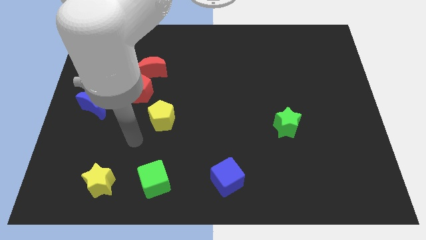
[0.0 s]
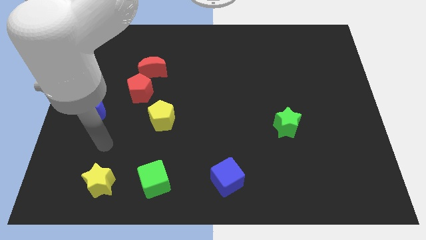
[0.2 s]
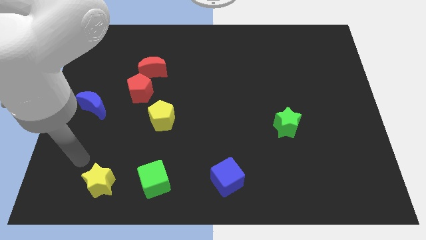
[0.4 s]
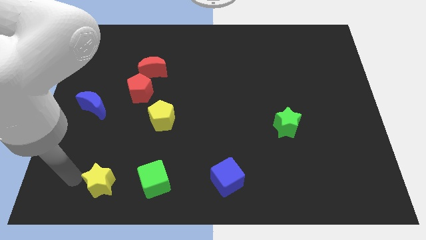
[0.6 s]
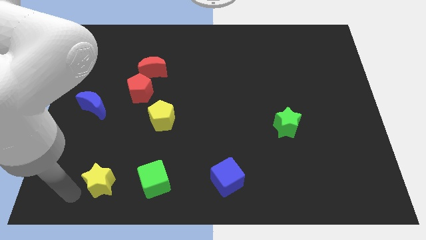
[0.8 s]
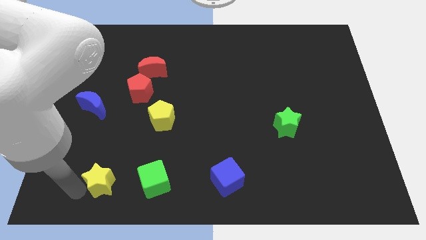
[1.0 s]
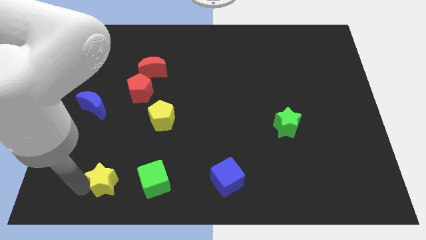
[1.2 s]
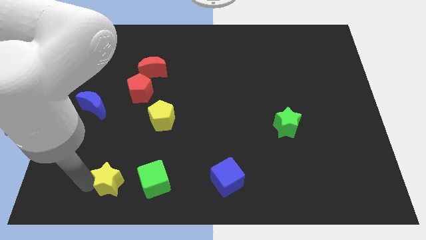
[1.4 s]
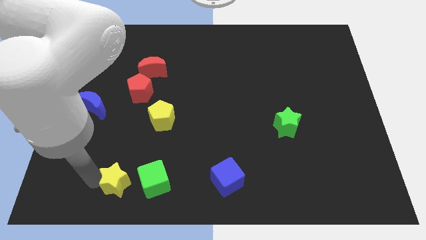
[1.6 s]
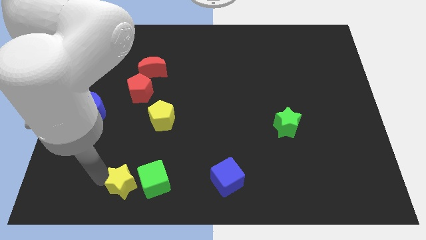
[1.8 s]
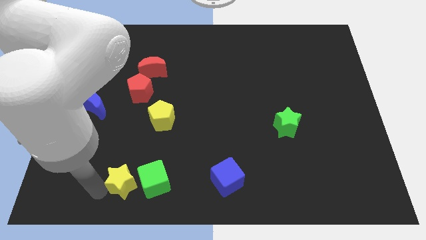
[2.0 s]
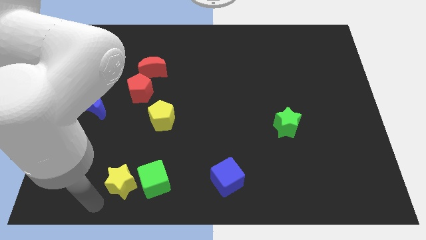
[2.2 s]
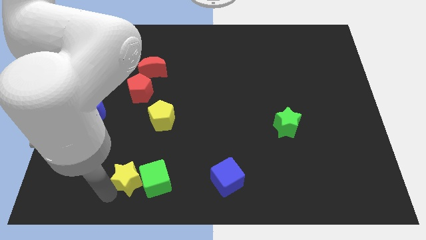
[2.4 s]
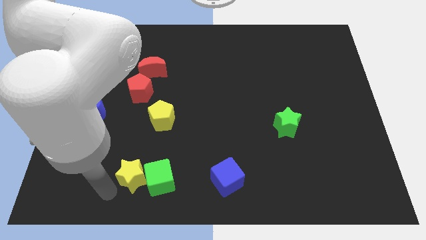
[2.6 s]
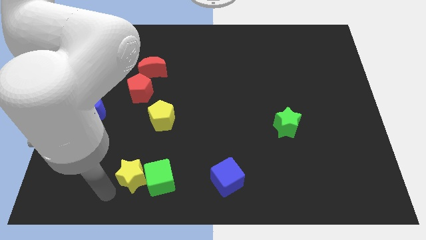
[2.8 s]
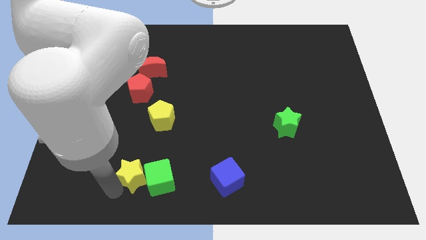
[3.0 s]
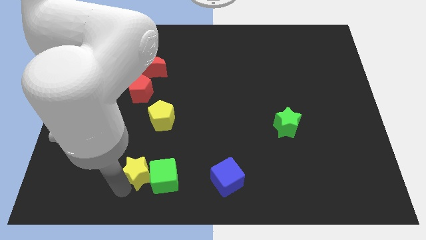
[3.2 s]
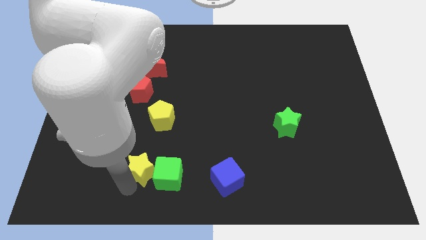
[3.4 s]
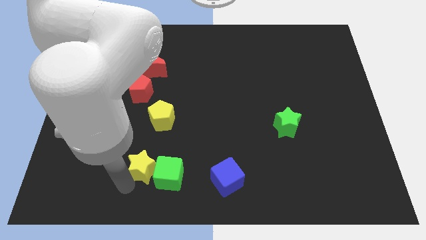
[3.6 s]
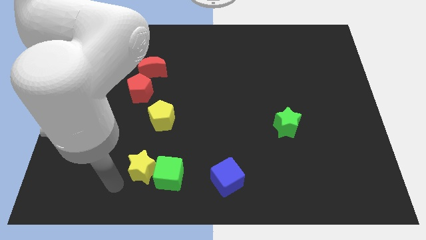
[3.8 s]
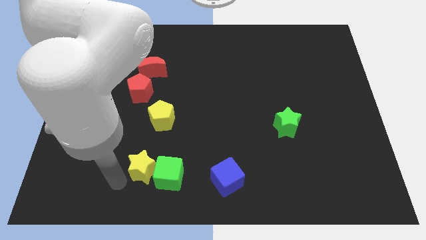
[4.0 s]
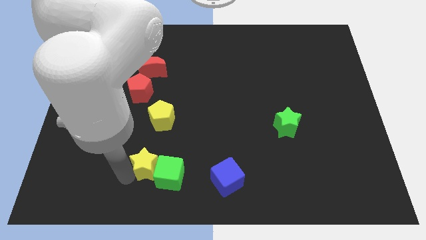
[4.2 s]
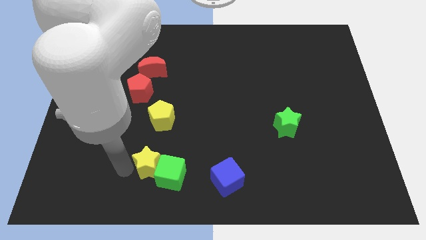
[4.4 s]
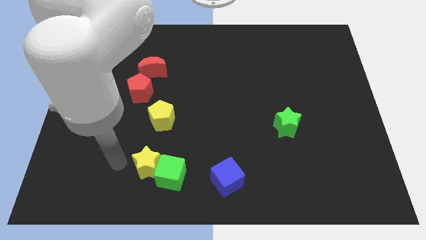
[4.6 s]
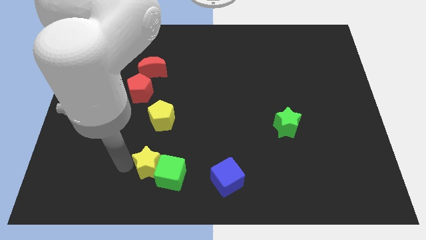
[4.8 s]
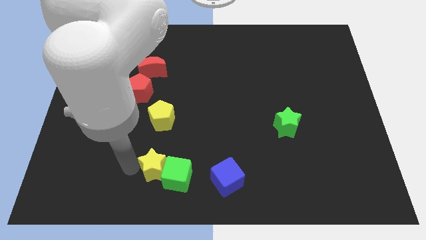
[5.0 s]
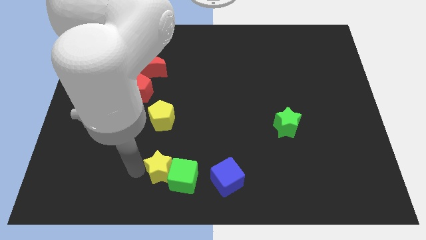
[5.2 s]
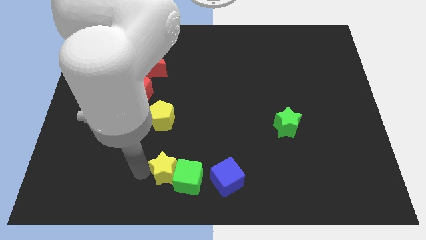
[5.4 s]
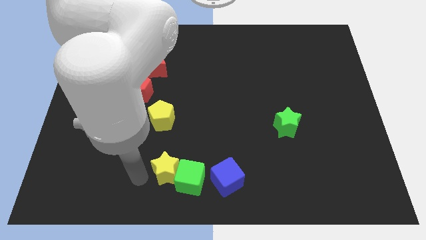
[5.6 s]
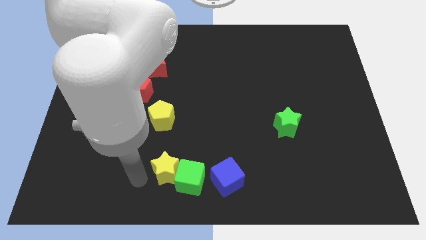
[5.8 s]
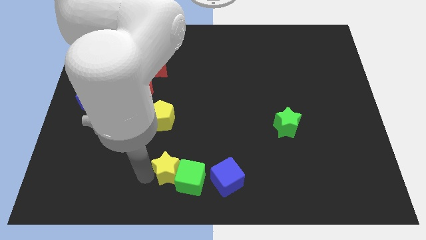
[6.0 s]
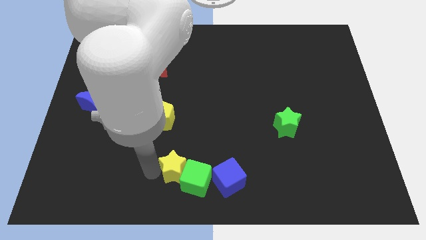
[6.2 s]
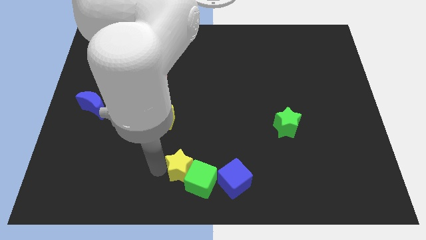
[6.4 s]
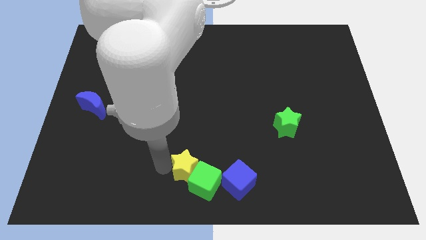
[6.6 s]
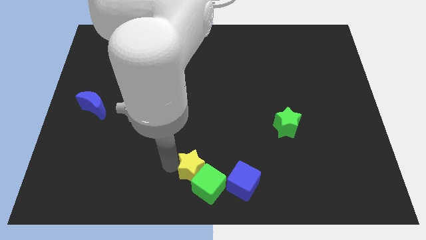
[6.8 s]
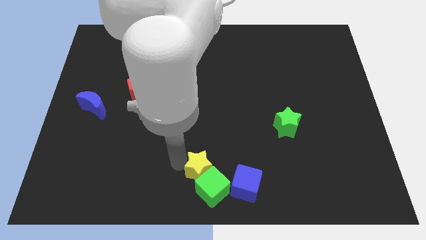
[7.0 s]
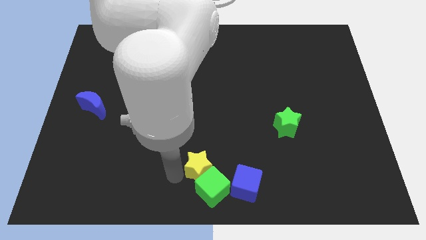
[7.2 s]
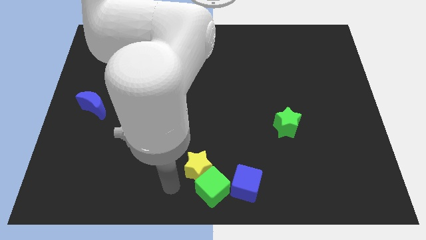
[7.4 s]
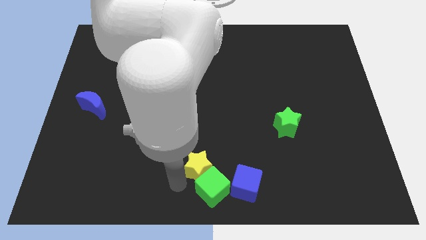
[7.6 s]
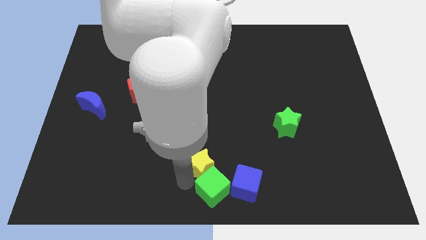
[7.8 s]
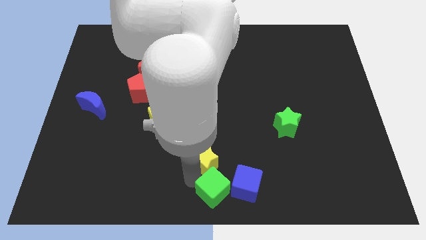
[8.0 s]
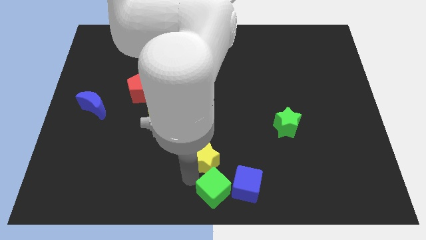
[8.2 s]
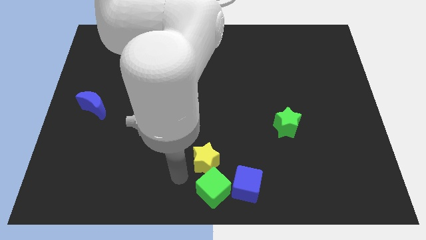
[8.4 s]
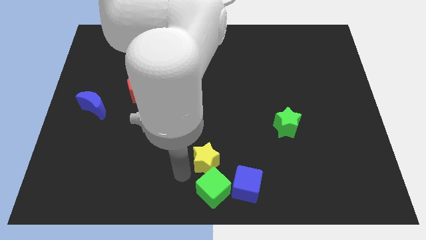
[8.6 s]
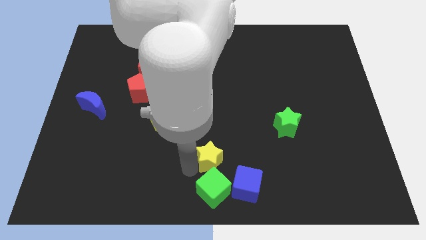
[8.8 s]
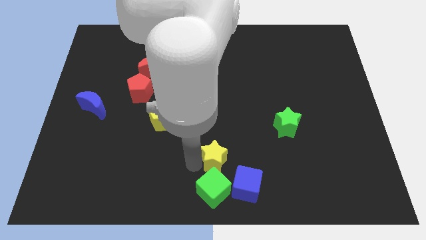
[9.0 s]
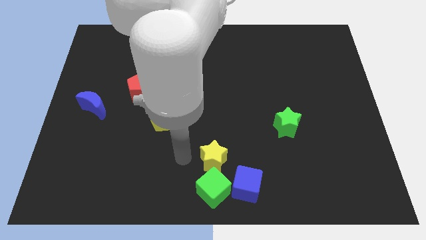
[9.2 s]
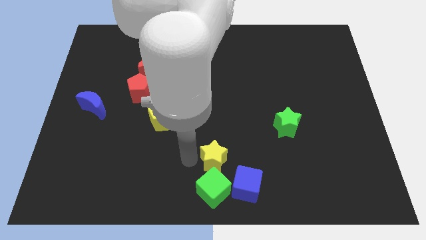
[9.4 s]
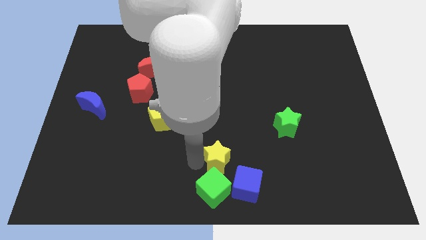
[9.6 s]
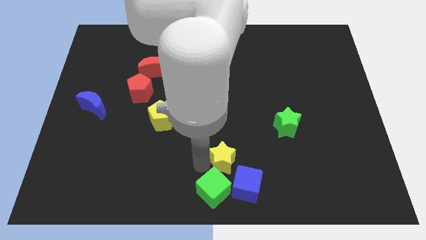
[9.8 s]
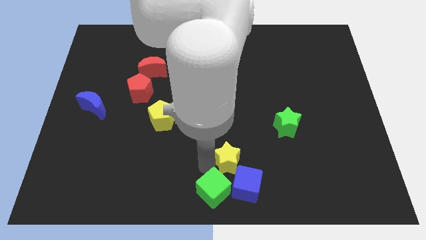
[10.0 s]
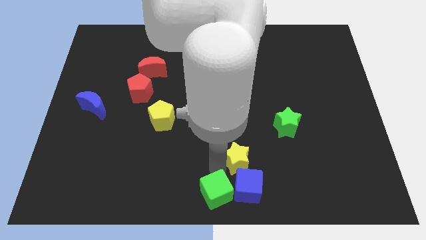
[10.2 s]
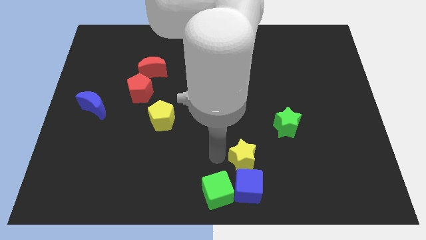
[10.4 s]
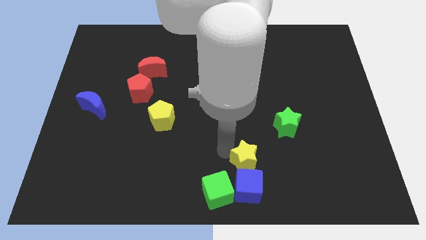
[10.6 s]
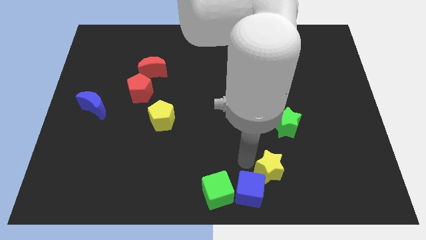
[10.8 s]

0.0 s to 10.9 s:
slide the yellow star to the right of the blue cube

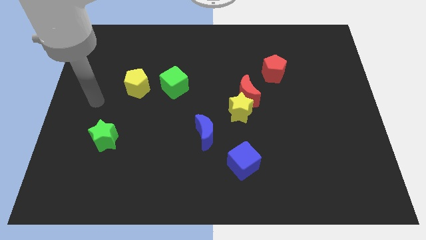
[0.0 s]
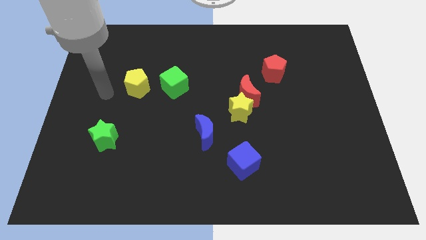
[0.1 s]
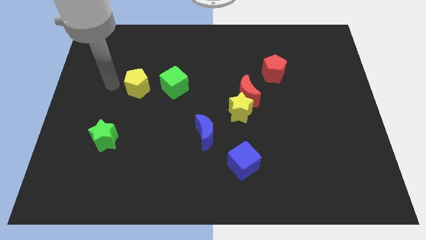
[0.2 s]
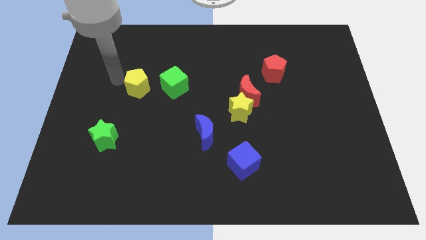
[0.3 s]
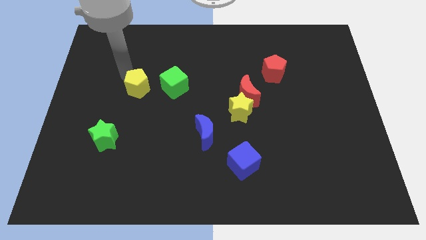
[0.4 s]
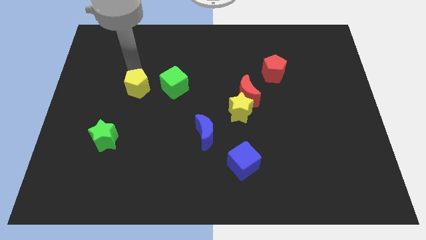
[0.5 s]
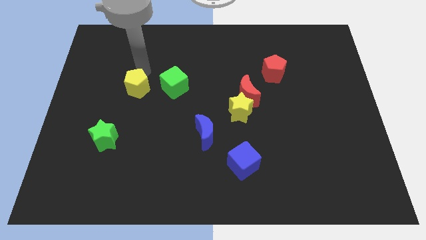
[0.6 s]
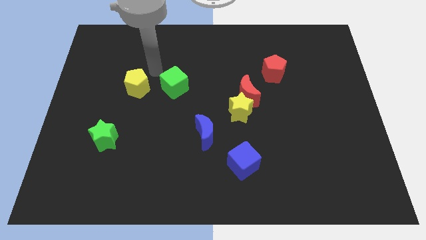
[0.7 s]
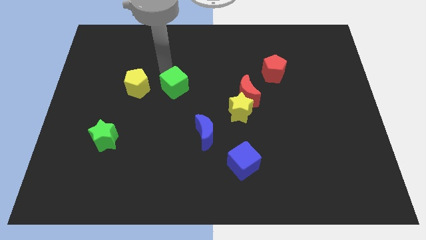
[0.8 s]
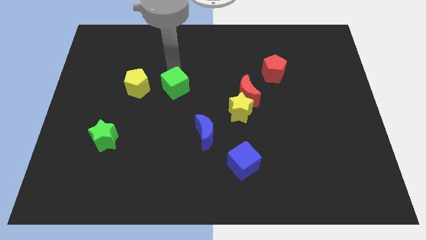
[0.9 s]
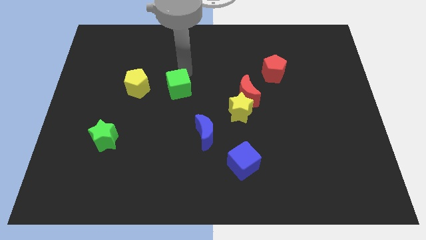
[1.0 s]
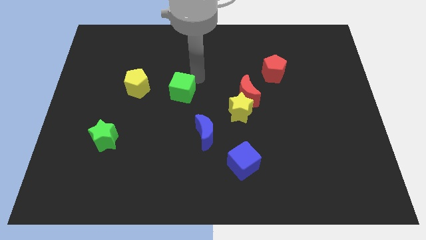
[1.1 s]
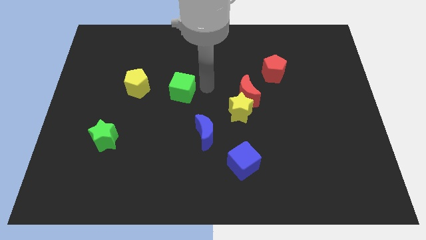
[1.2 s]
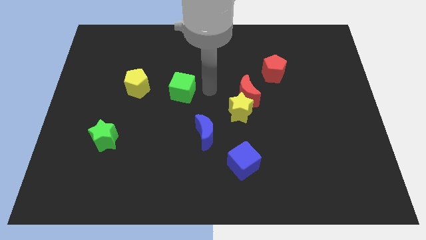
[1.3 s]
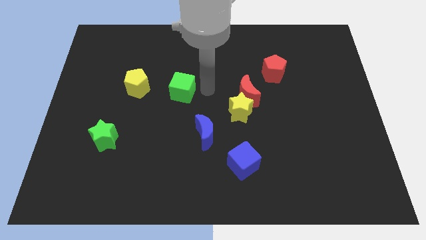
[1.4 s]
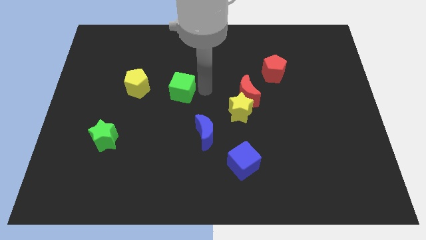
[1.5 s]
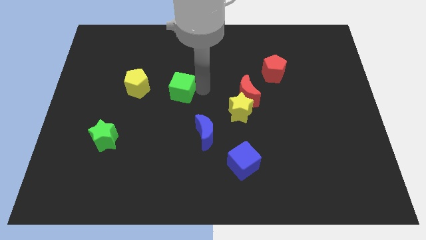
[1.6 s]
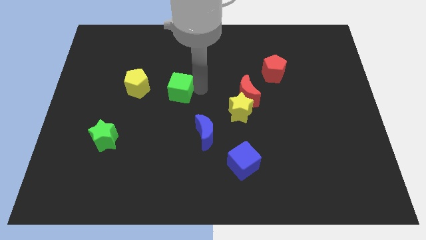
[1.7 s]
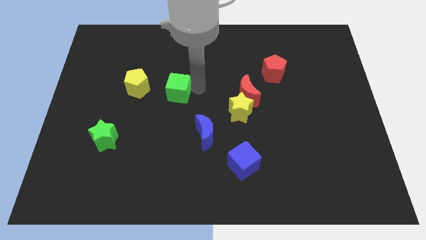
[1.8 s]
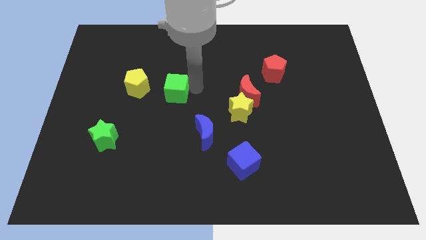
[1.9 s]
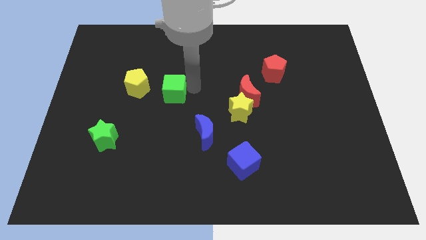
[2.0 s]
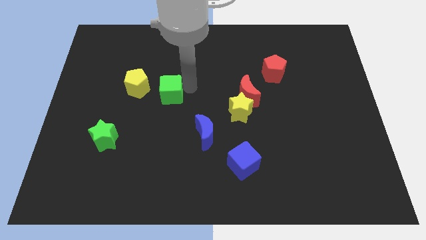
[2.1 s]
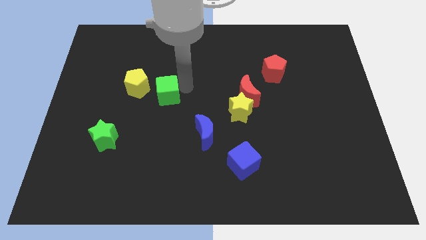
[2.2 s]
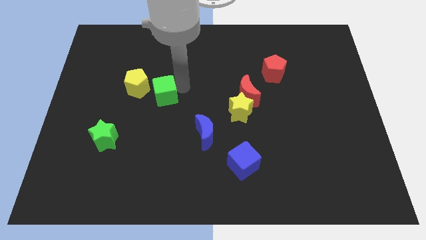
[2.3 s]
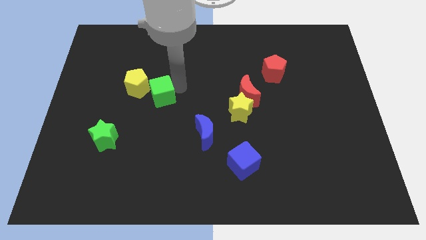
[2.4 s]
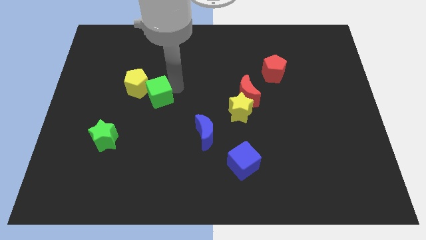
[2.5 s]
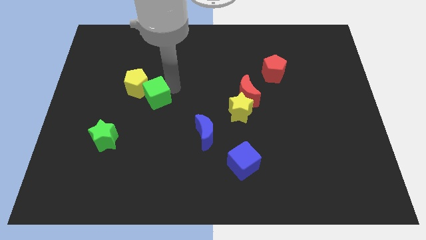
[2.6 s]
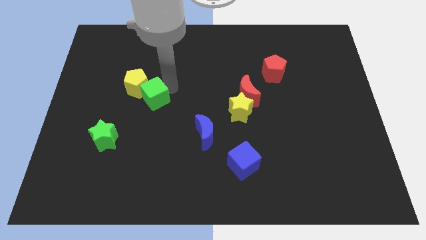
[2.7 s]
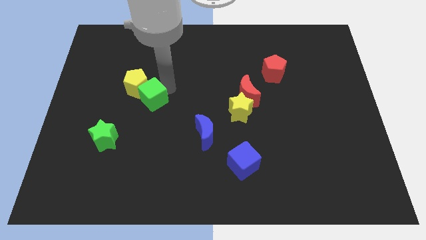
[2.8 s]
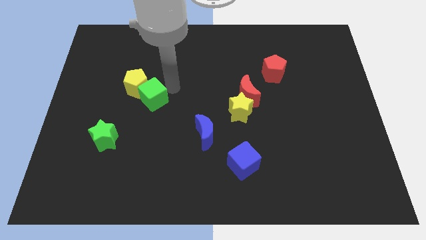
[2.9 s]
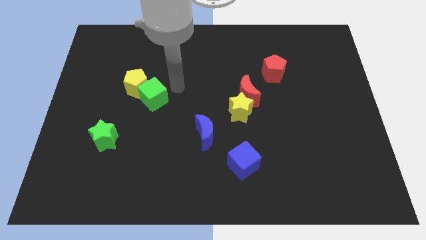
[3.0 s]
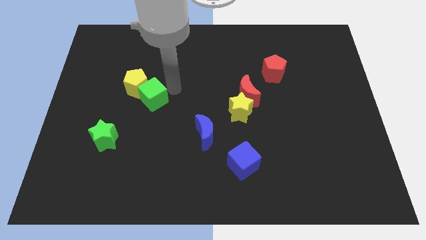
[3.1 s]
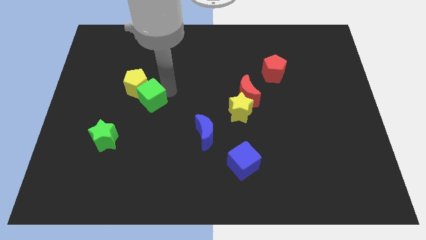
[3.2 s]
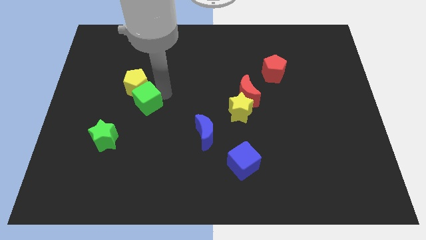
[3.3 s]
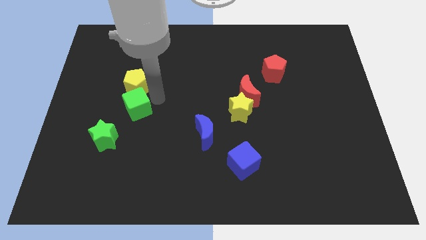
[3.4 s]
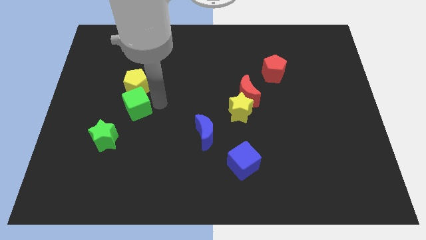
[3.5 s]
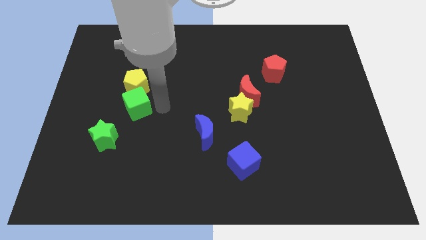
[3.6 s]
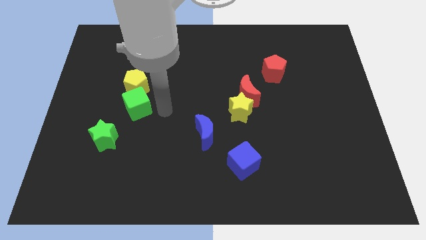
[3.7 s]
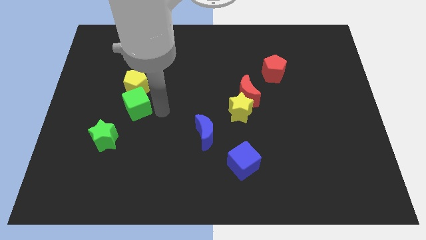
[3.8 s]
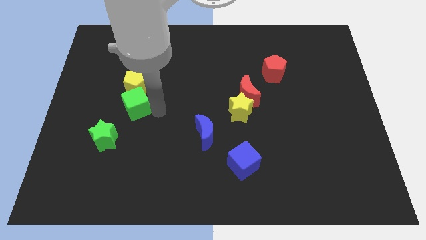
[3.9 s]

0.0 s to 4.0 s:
move the green cube diagonally down and to the left of the yellow pentagon
